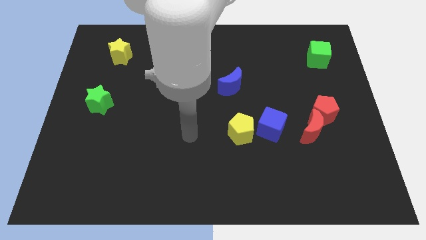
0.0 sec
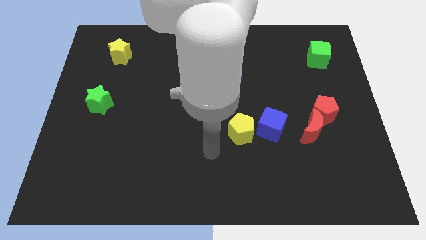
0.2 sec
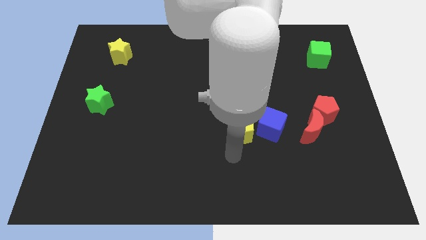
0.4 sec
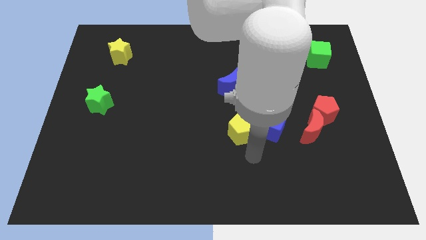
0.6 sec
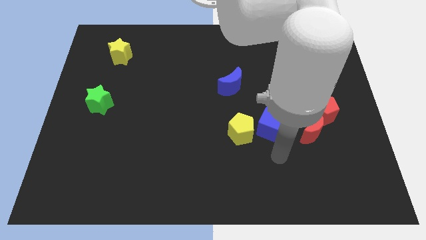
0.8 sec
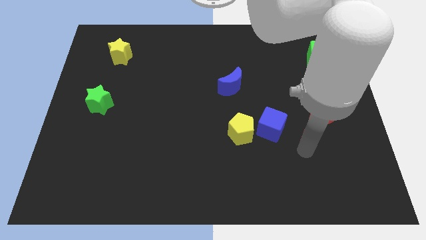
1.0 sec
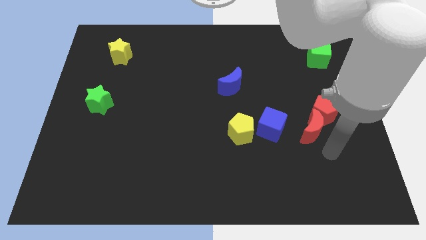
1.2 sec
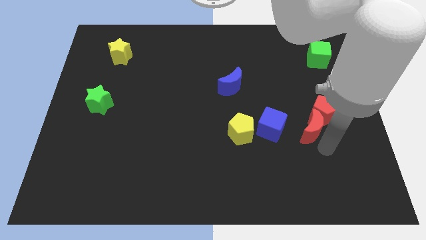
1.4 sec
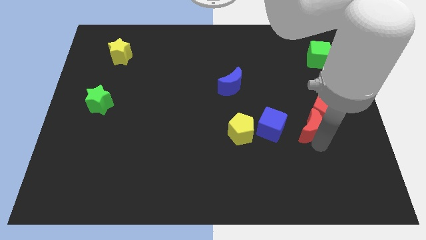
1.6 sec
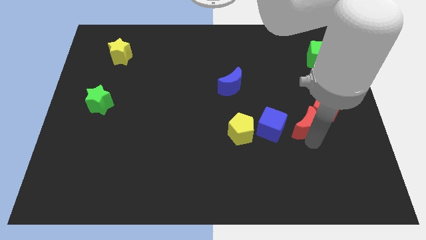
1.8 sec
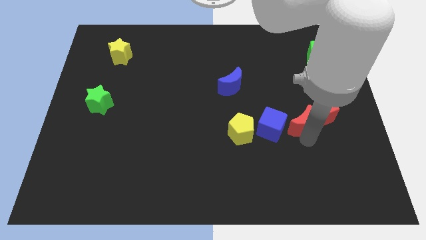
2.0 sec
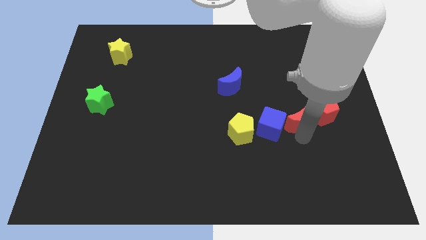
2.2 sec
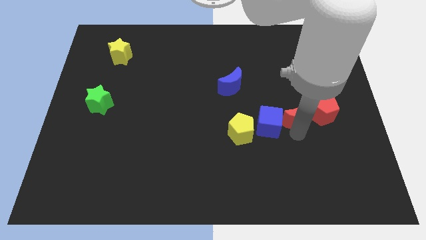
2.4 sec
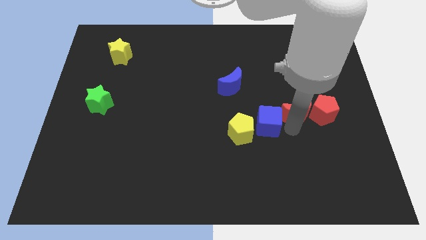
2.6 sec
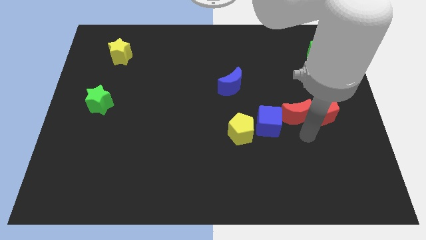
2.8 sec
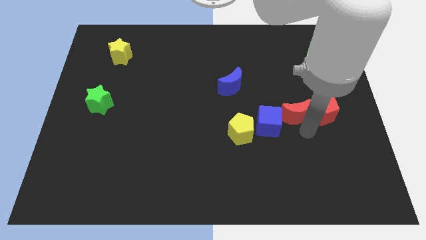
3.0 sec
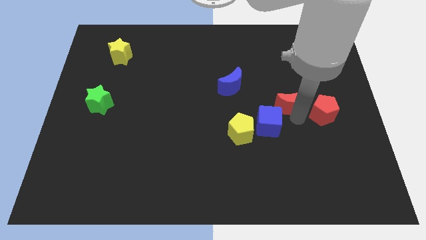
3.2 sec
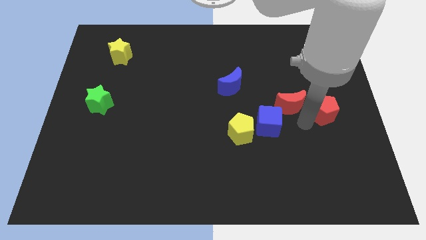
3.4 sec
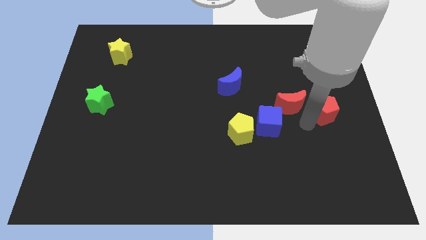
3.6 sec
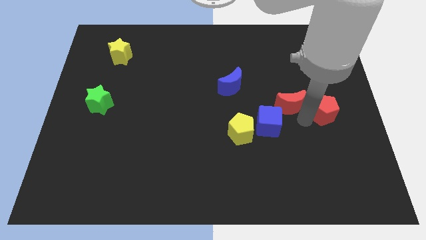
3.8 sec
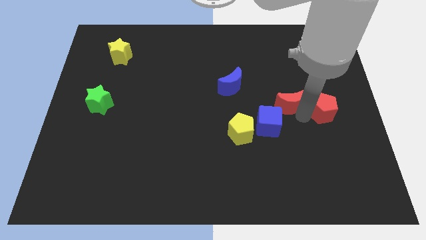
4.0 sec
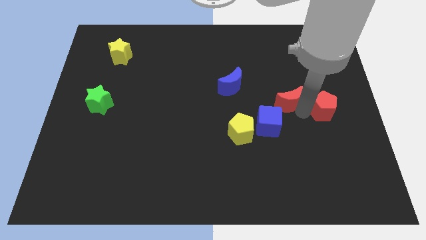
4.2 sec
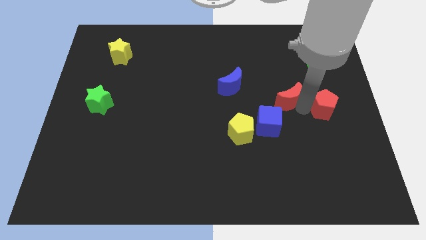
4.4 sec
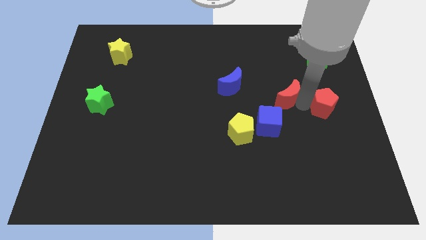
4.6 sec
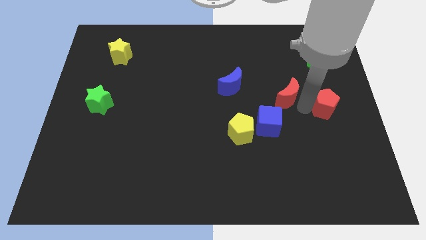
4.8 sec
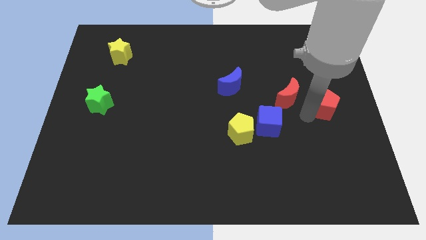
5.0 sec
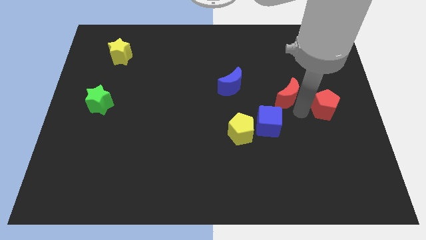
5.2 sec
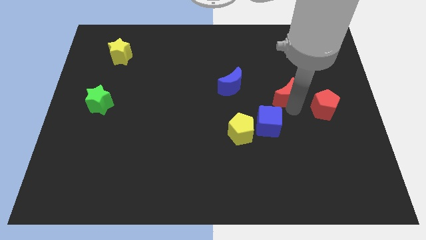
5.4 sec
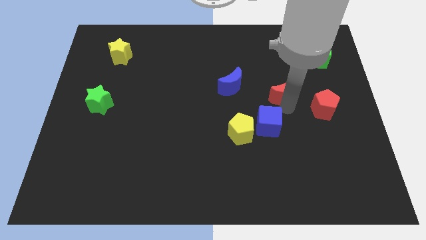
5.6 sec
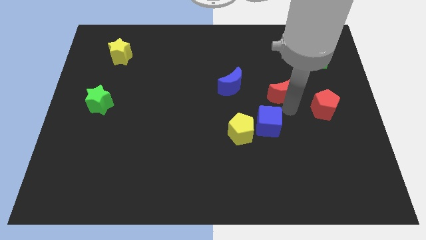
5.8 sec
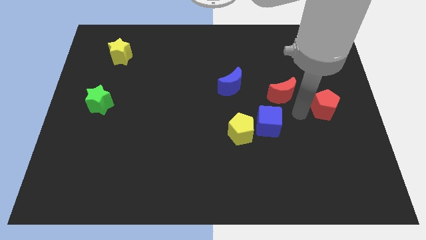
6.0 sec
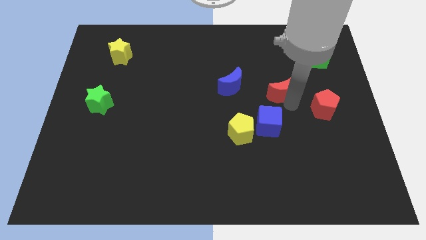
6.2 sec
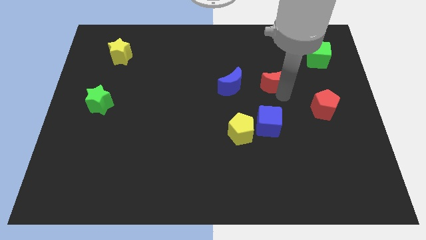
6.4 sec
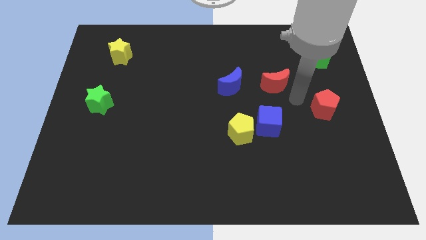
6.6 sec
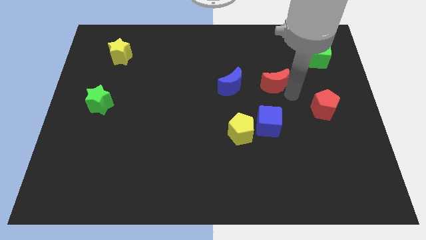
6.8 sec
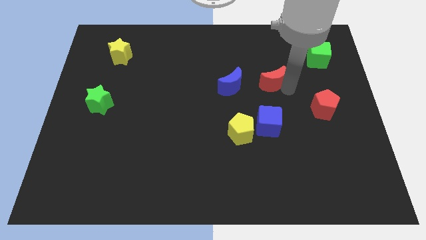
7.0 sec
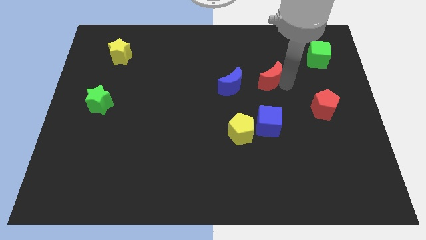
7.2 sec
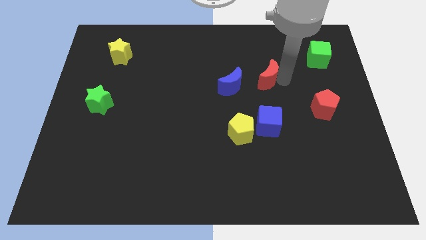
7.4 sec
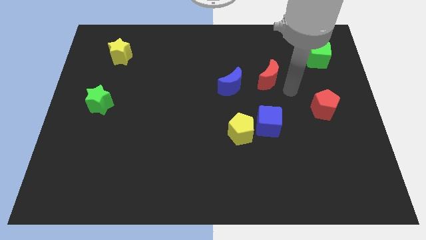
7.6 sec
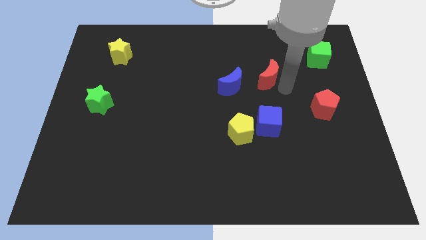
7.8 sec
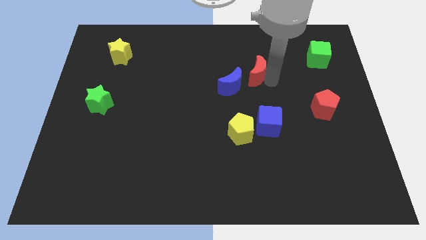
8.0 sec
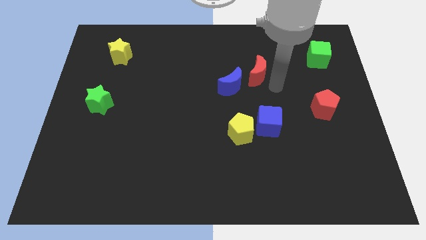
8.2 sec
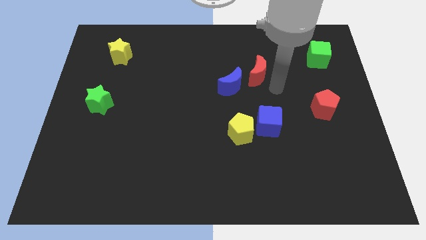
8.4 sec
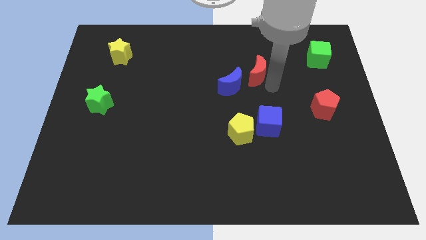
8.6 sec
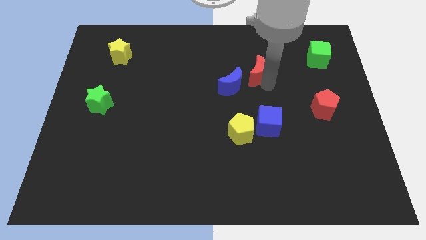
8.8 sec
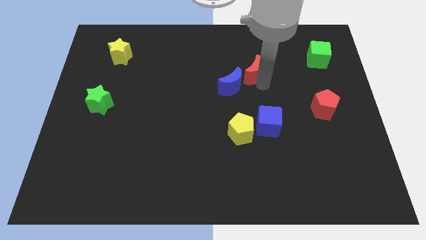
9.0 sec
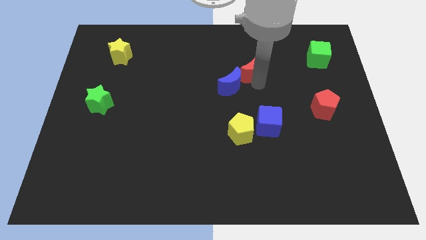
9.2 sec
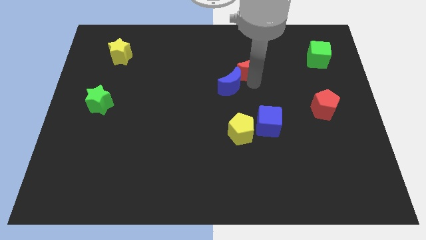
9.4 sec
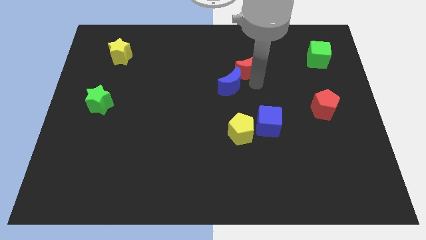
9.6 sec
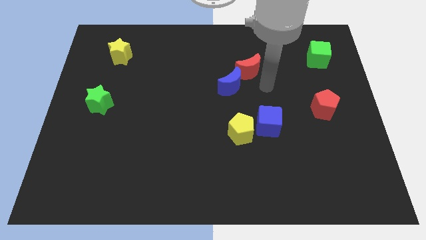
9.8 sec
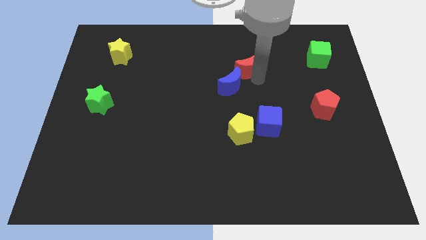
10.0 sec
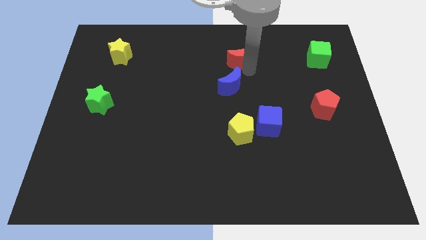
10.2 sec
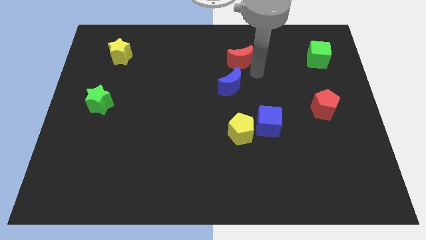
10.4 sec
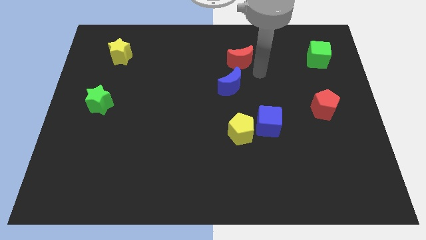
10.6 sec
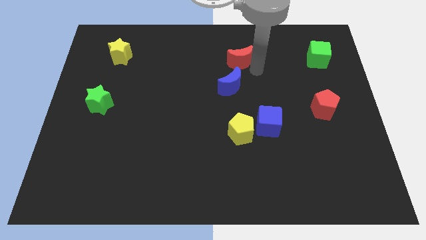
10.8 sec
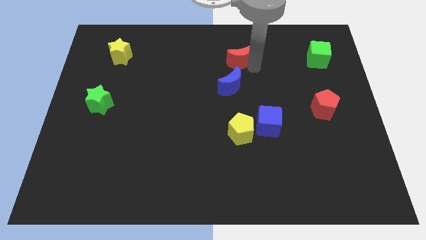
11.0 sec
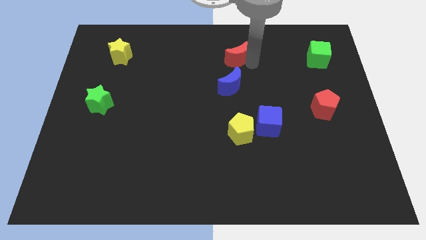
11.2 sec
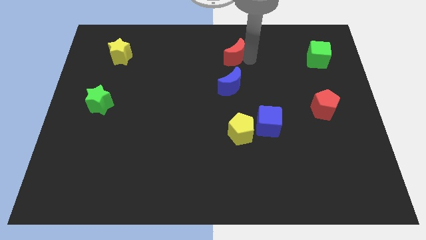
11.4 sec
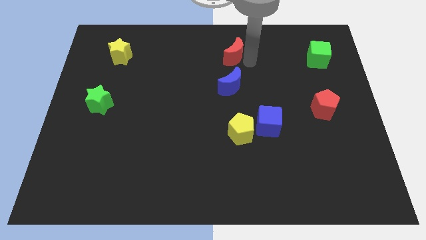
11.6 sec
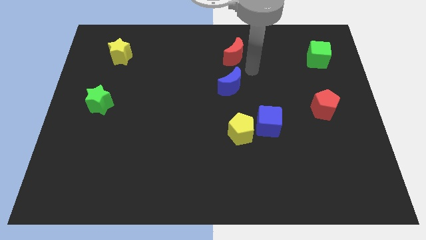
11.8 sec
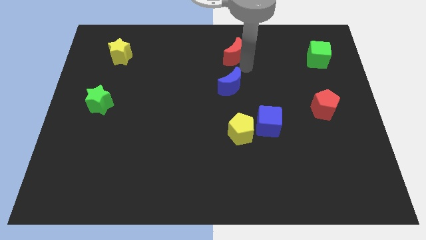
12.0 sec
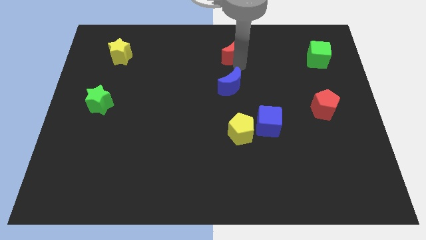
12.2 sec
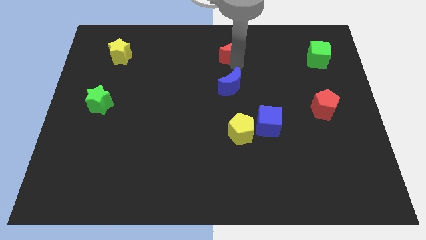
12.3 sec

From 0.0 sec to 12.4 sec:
slide the red moon to the top
